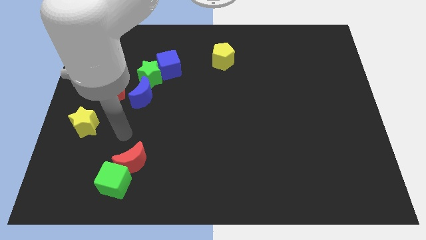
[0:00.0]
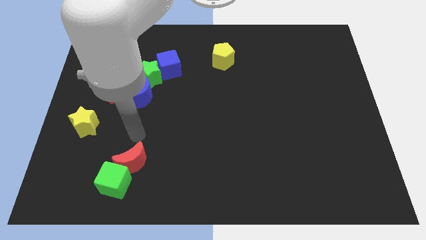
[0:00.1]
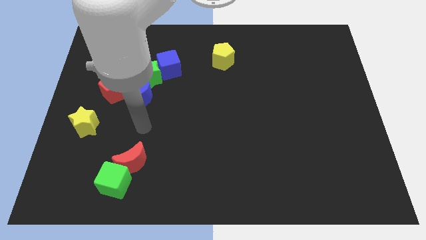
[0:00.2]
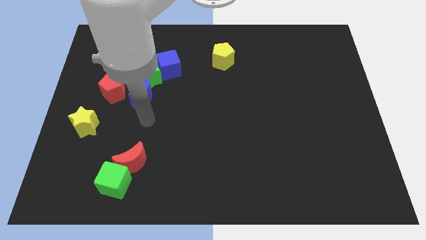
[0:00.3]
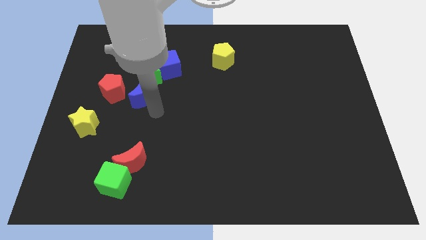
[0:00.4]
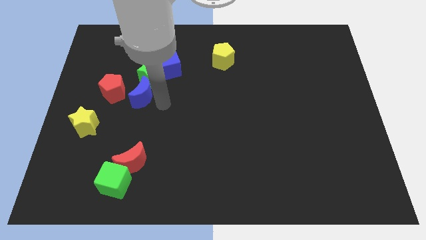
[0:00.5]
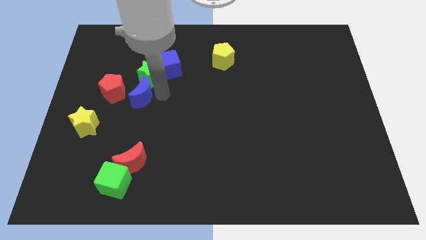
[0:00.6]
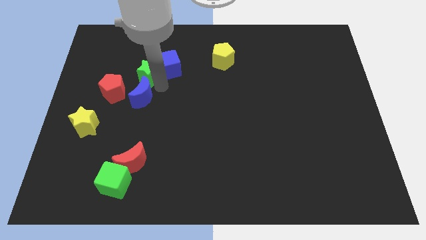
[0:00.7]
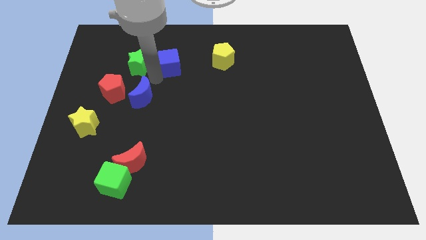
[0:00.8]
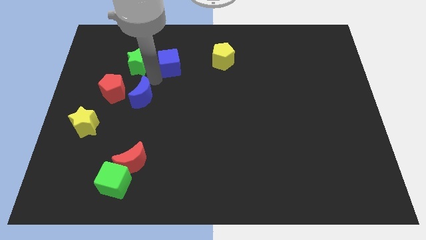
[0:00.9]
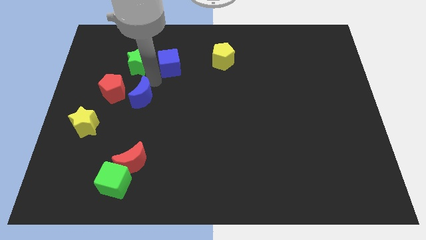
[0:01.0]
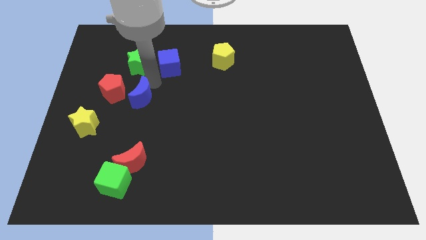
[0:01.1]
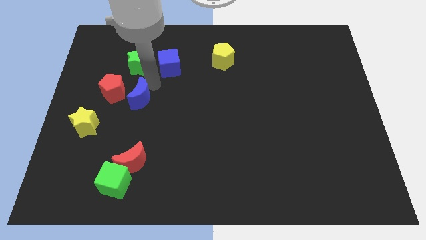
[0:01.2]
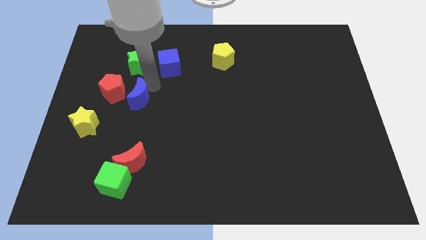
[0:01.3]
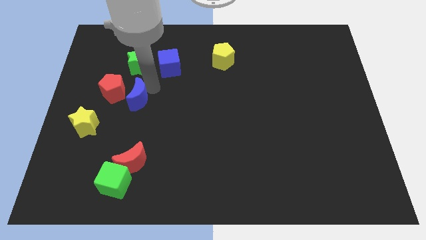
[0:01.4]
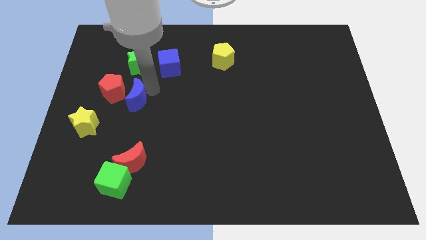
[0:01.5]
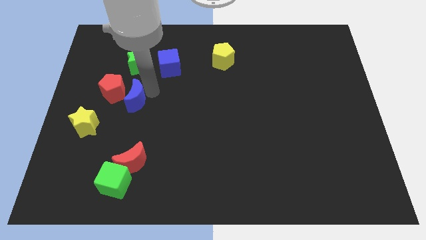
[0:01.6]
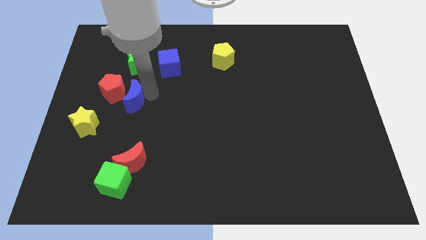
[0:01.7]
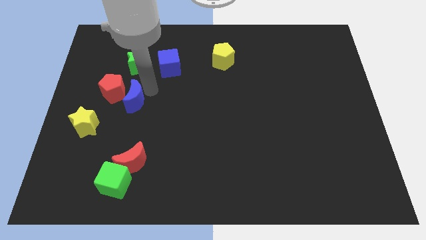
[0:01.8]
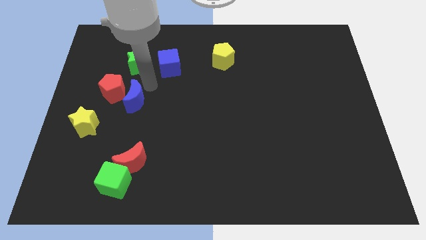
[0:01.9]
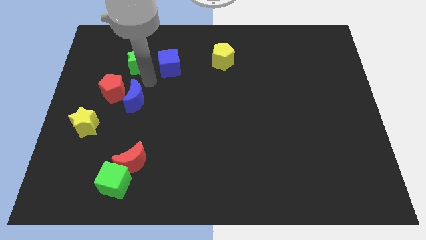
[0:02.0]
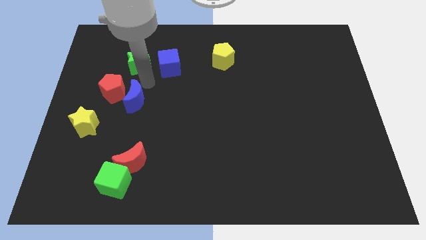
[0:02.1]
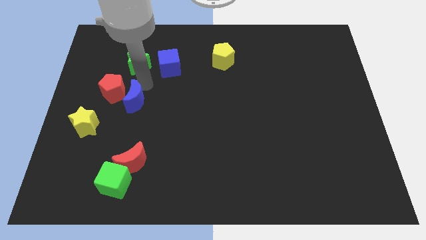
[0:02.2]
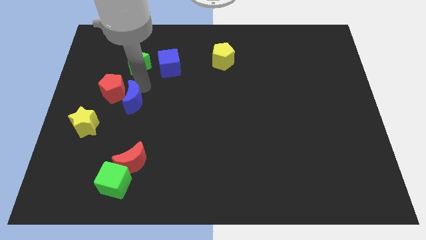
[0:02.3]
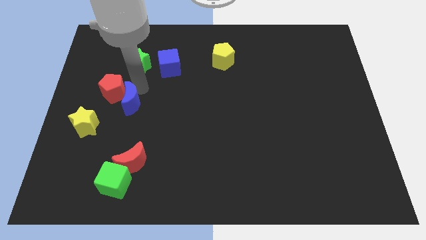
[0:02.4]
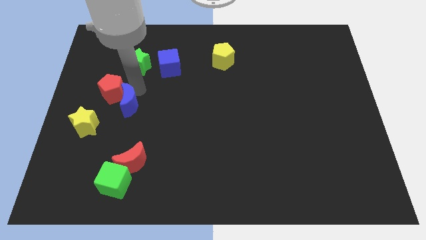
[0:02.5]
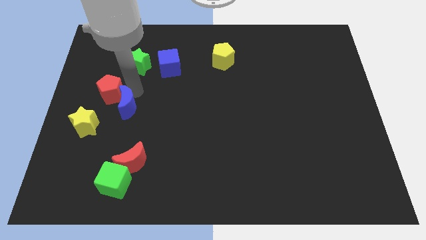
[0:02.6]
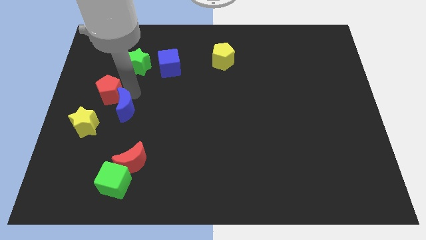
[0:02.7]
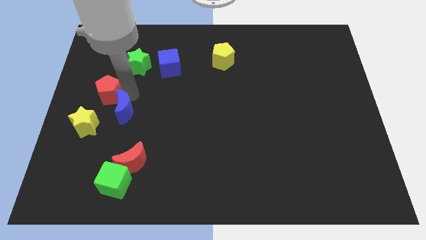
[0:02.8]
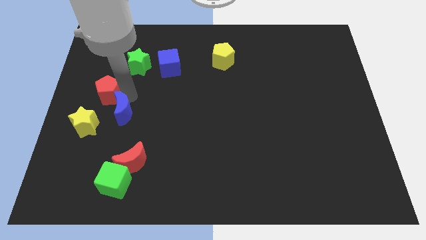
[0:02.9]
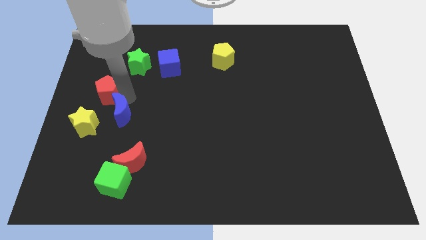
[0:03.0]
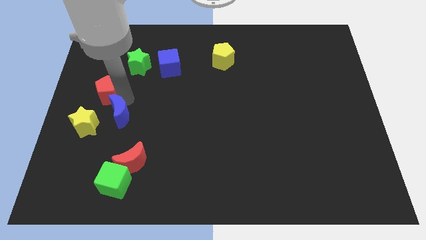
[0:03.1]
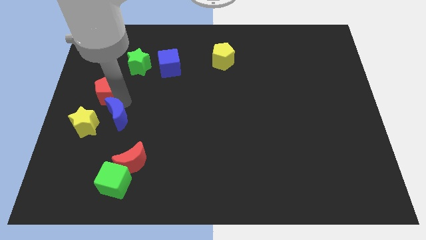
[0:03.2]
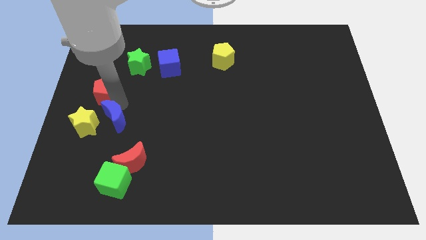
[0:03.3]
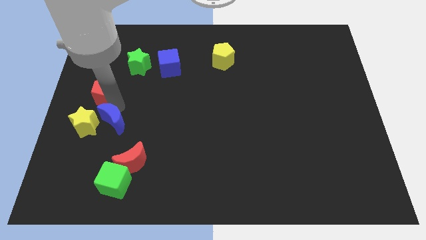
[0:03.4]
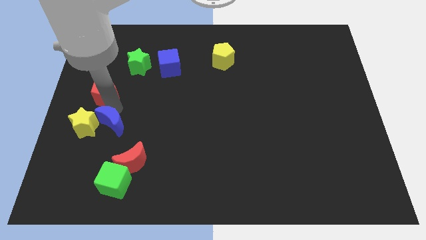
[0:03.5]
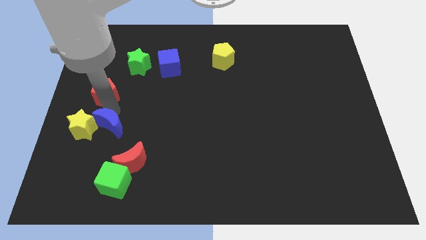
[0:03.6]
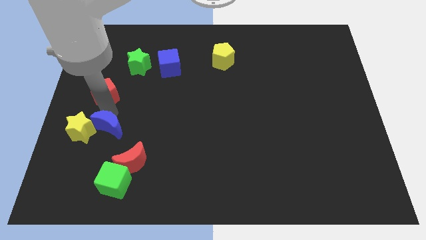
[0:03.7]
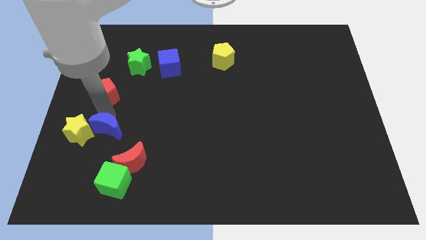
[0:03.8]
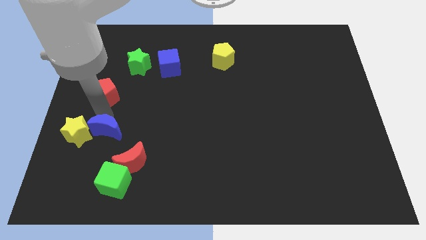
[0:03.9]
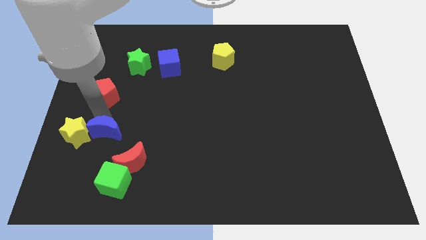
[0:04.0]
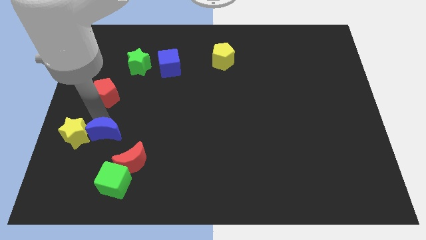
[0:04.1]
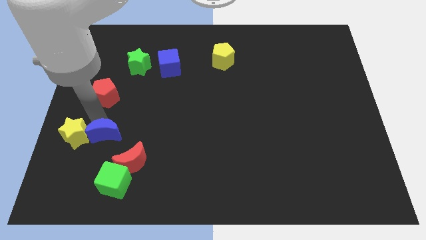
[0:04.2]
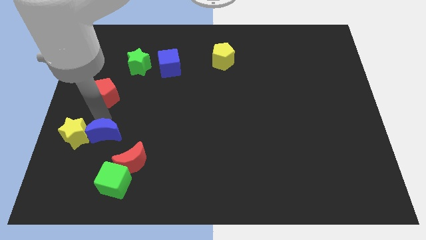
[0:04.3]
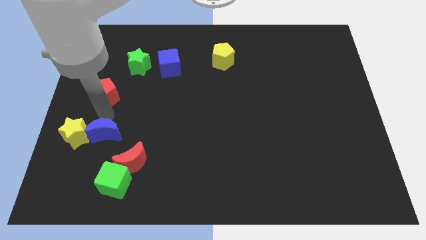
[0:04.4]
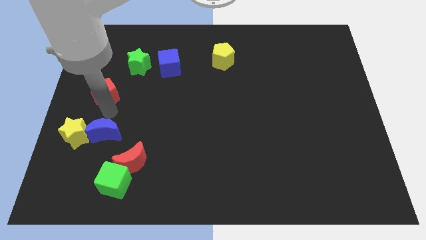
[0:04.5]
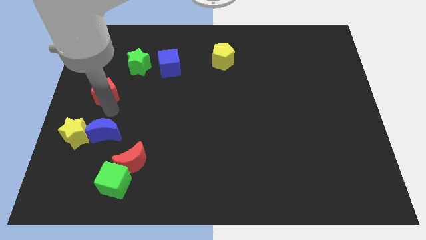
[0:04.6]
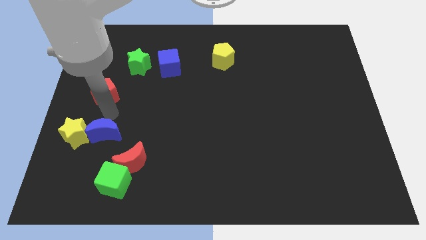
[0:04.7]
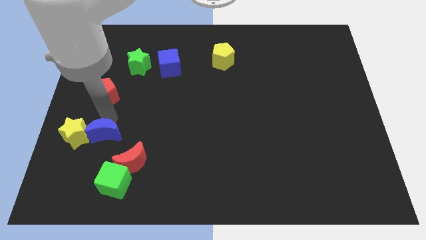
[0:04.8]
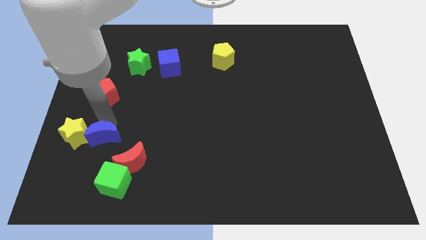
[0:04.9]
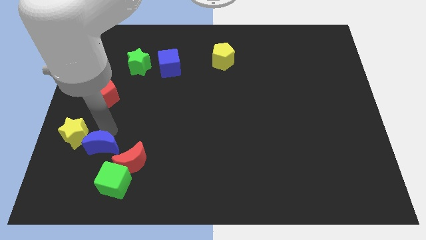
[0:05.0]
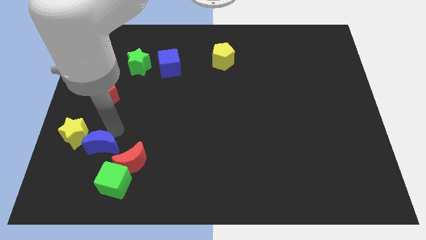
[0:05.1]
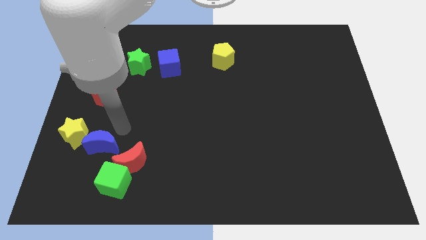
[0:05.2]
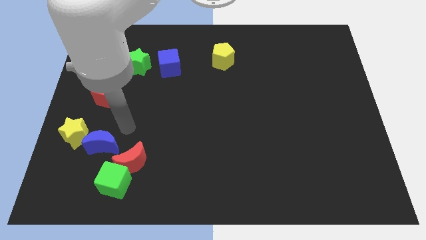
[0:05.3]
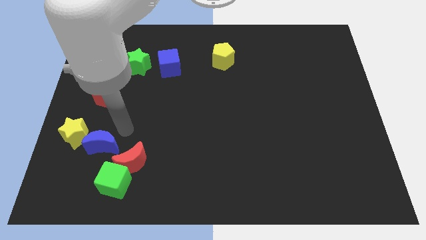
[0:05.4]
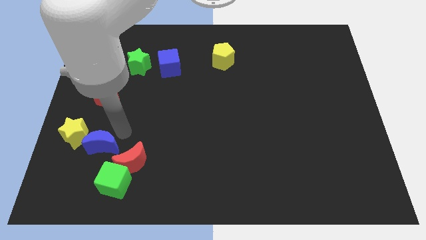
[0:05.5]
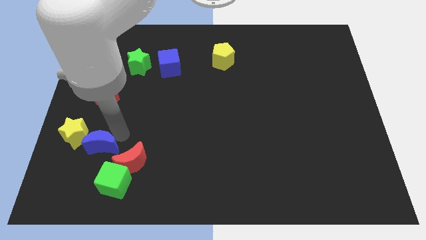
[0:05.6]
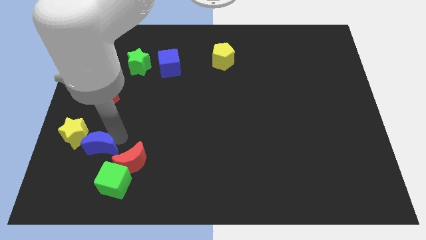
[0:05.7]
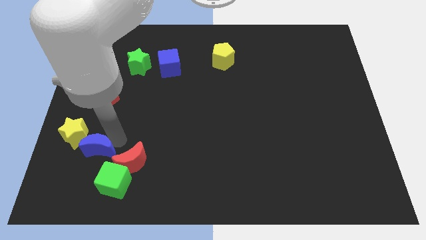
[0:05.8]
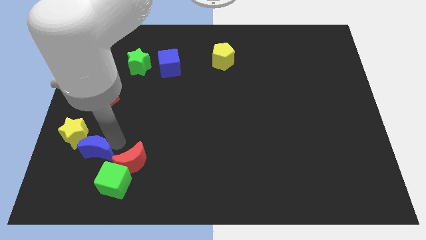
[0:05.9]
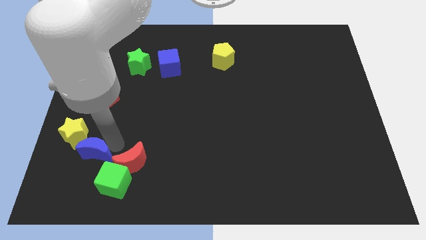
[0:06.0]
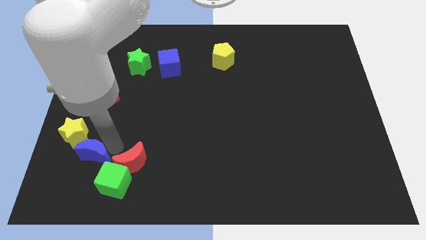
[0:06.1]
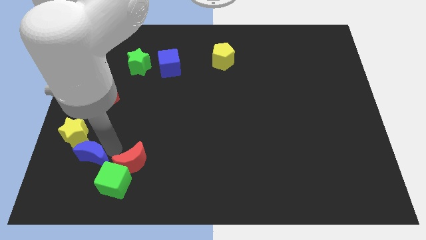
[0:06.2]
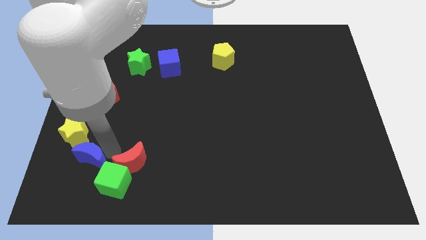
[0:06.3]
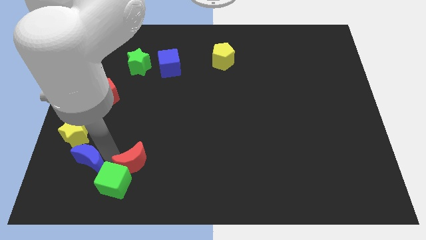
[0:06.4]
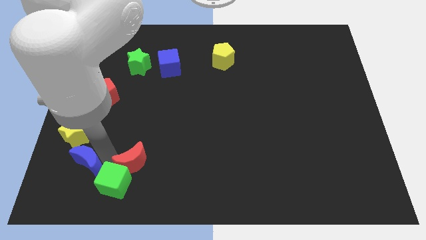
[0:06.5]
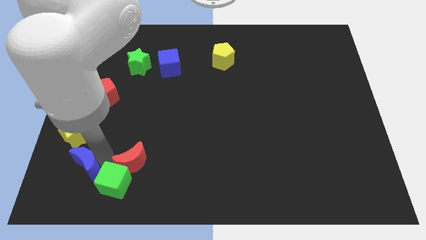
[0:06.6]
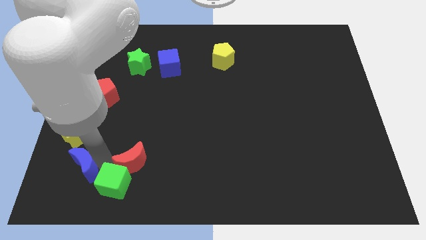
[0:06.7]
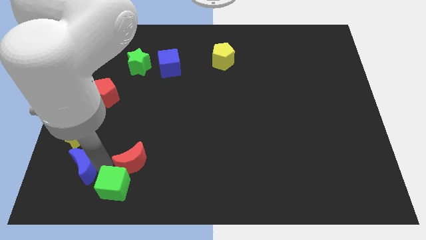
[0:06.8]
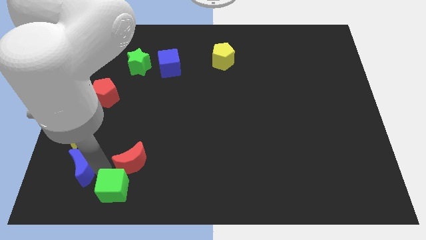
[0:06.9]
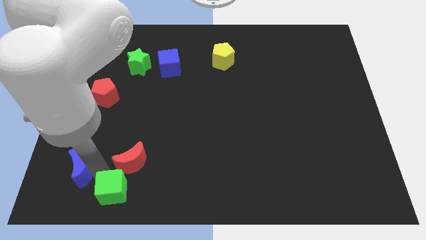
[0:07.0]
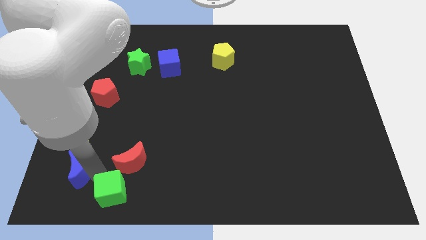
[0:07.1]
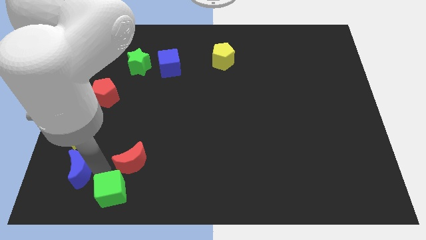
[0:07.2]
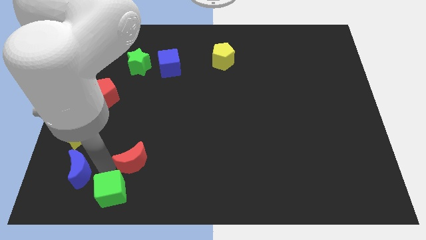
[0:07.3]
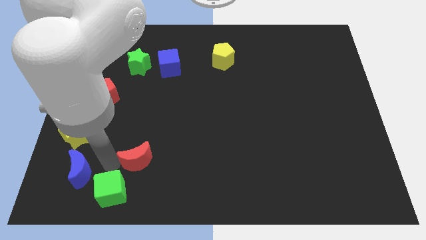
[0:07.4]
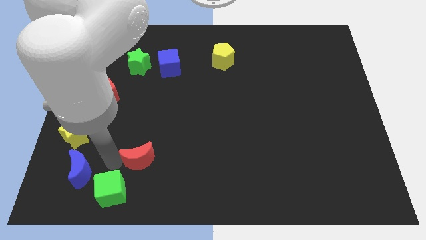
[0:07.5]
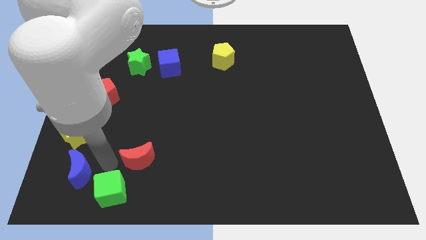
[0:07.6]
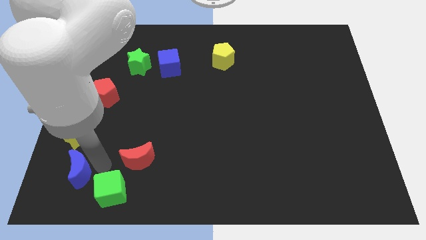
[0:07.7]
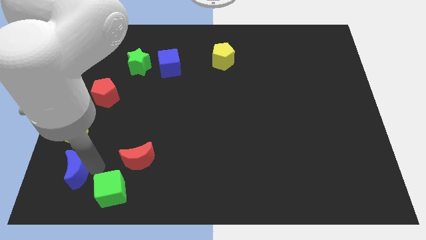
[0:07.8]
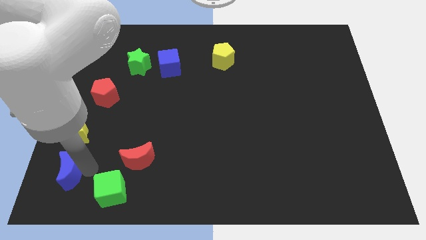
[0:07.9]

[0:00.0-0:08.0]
put the blue moon to the bottom left of the board
